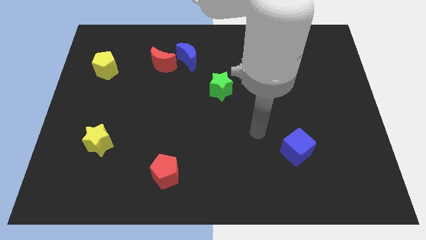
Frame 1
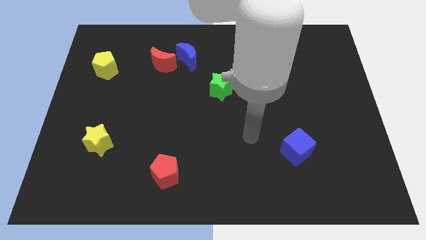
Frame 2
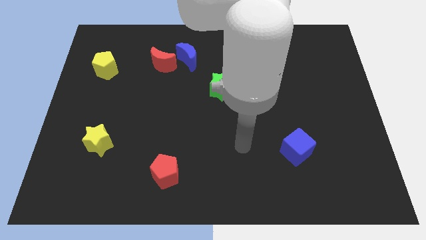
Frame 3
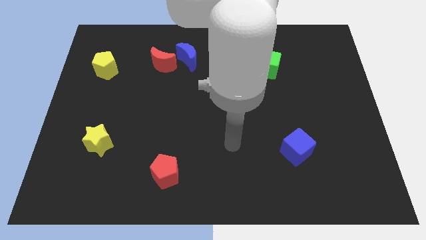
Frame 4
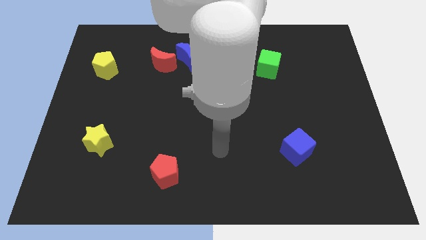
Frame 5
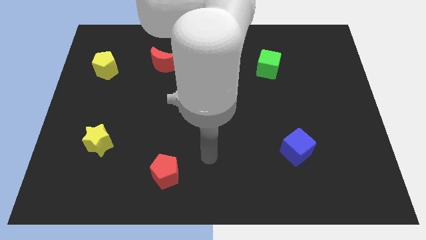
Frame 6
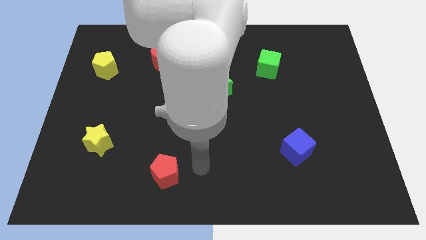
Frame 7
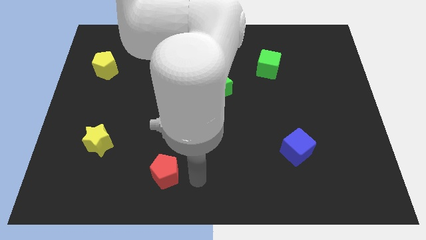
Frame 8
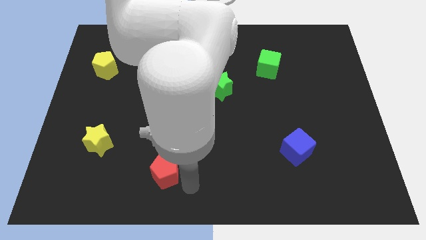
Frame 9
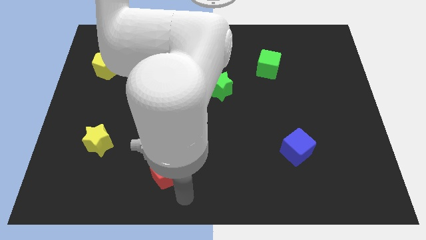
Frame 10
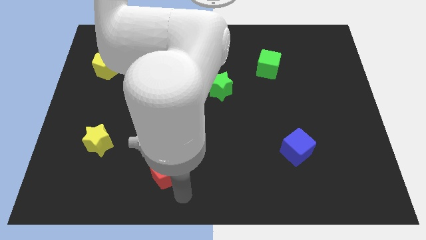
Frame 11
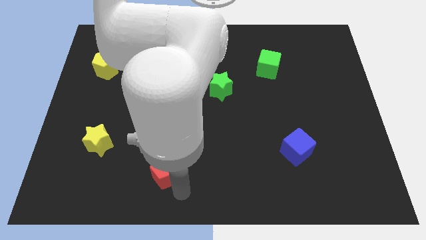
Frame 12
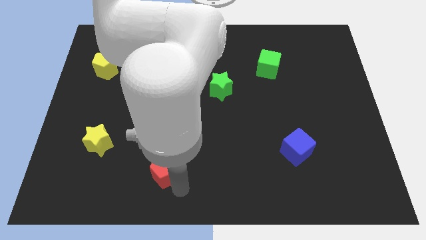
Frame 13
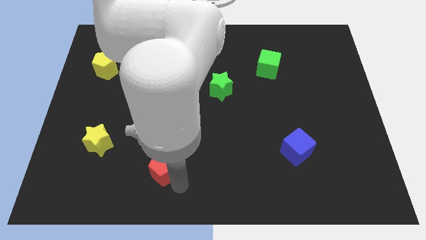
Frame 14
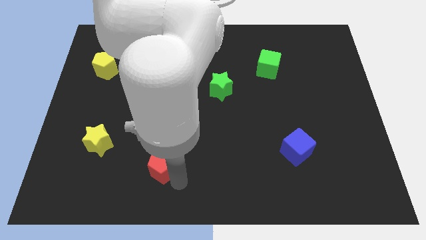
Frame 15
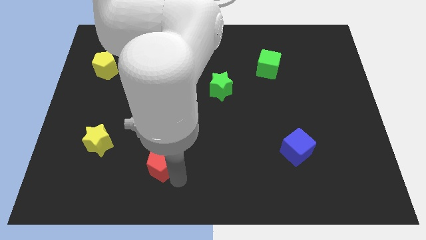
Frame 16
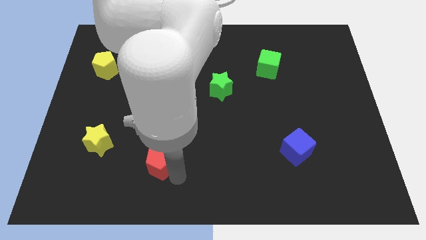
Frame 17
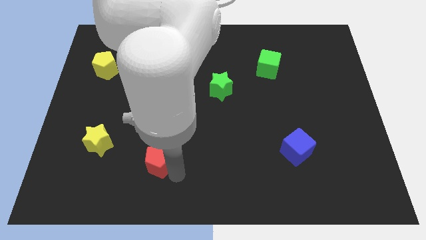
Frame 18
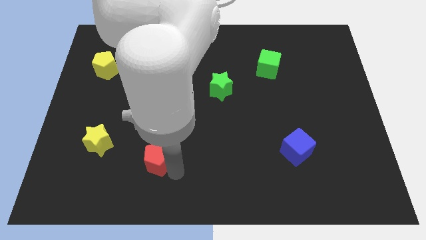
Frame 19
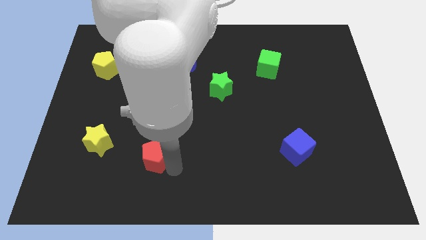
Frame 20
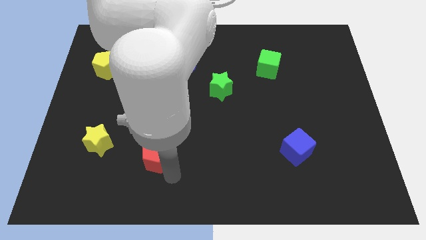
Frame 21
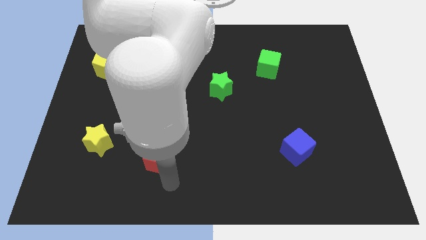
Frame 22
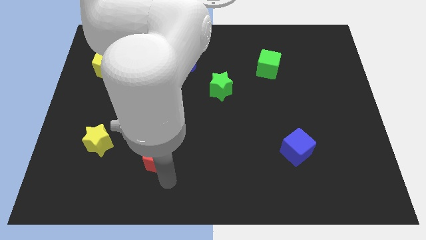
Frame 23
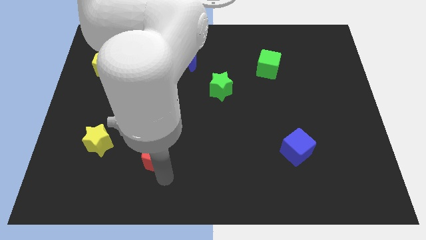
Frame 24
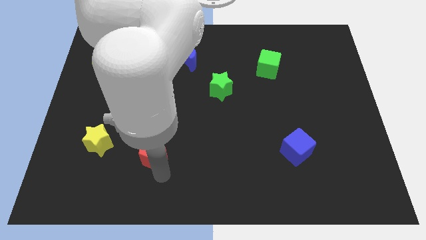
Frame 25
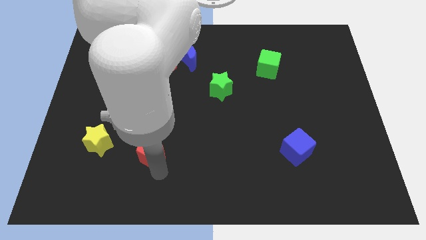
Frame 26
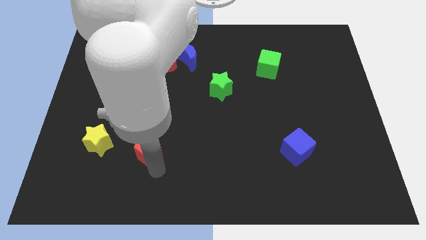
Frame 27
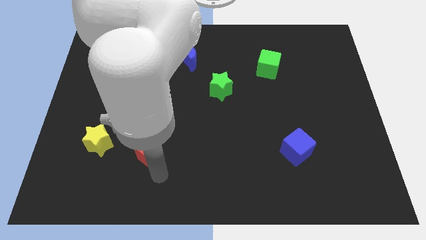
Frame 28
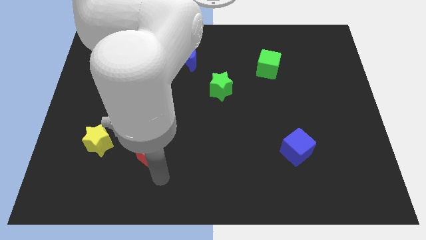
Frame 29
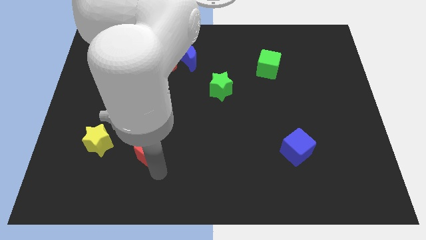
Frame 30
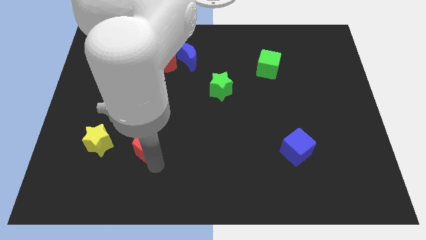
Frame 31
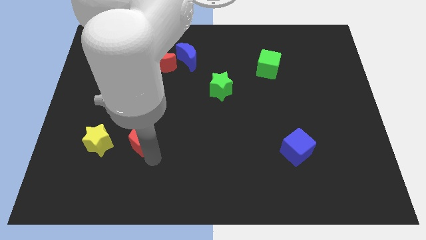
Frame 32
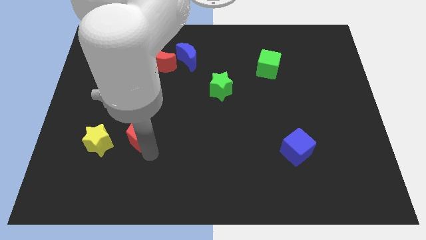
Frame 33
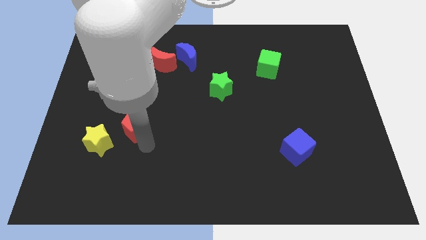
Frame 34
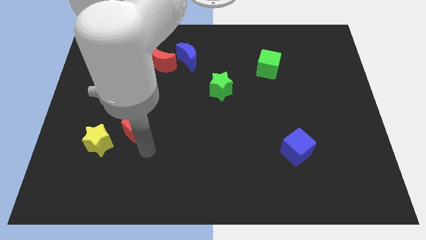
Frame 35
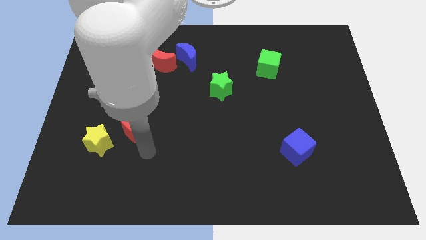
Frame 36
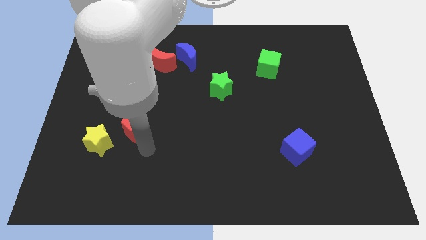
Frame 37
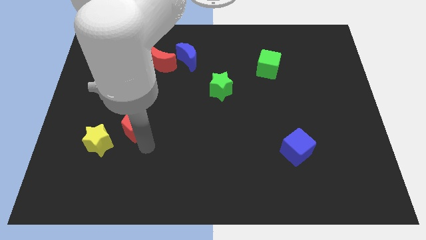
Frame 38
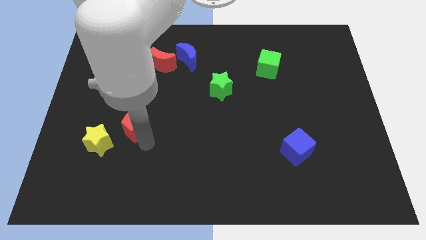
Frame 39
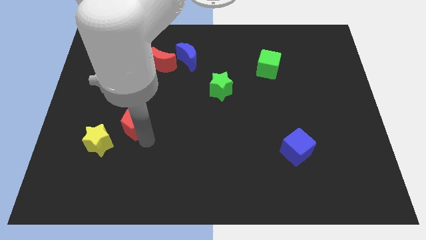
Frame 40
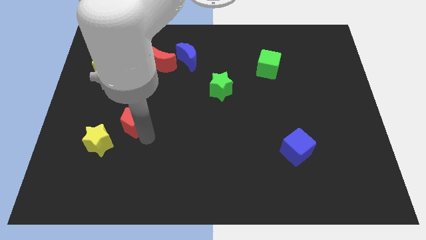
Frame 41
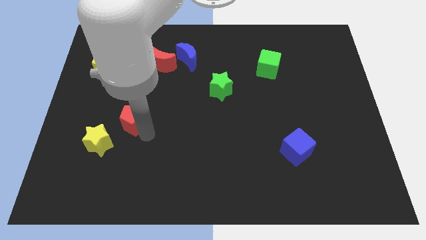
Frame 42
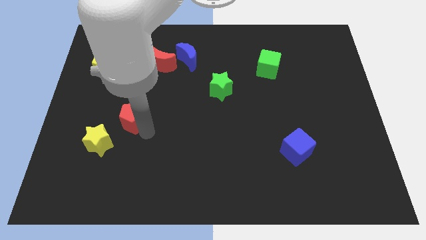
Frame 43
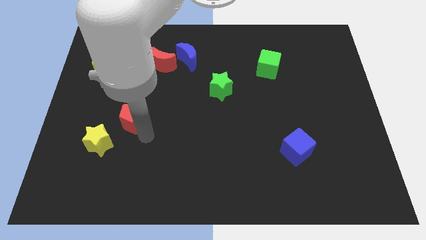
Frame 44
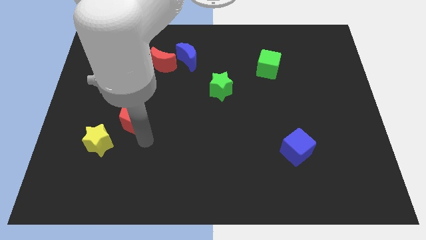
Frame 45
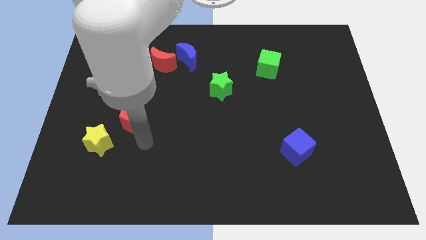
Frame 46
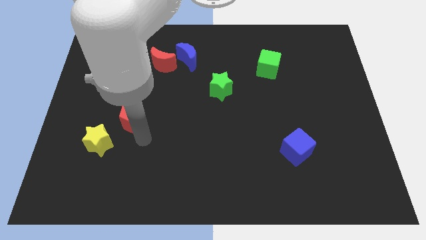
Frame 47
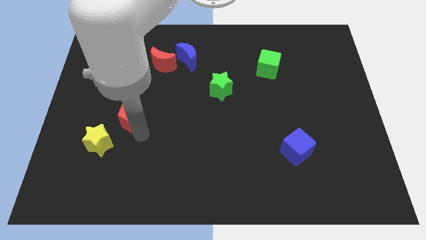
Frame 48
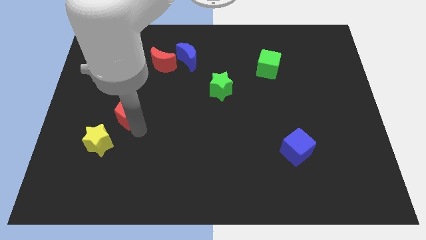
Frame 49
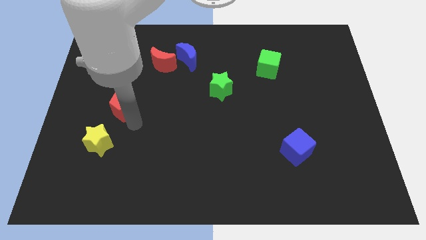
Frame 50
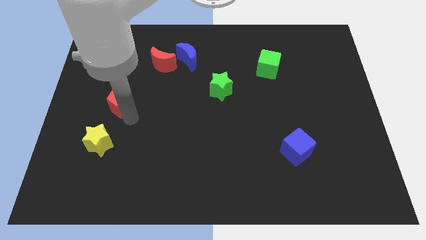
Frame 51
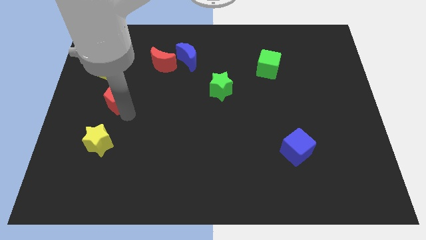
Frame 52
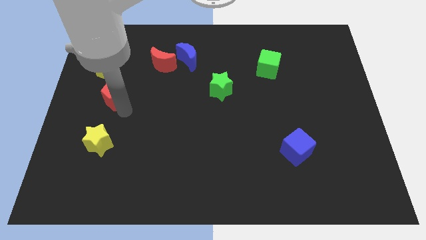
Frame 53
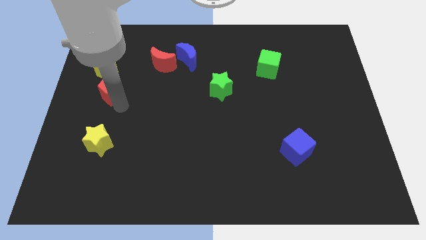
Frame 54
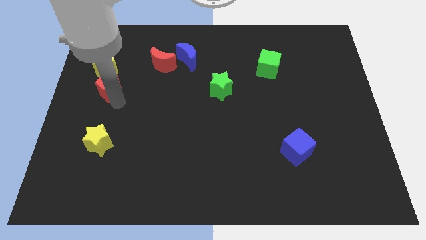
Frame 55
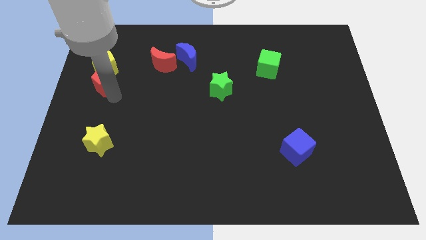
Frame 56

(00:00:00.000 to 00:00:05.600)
push the red pentagon close to the yellow pentagon

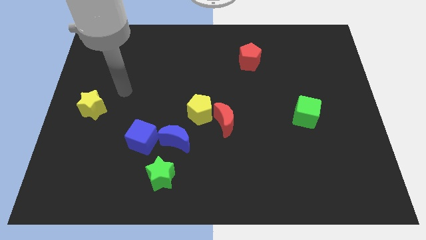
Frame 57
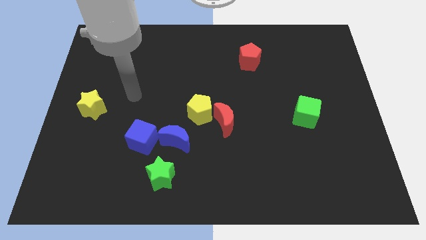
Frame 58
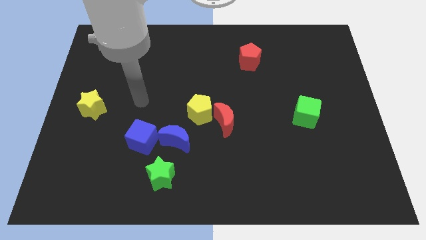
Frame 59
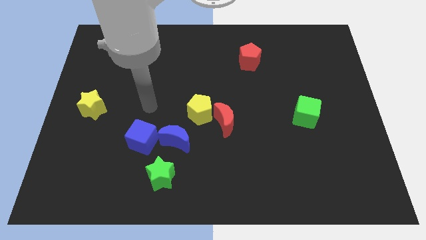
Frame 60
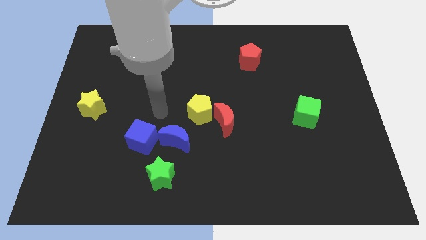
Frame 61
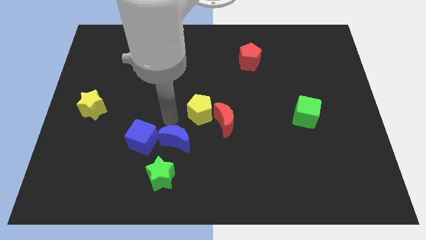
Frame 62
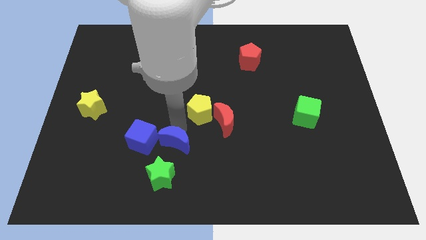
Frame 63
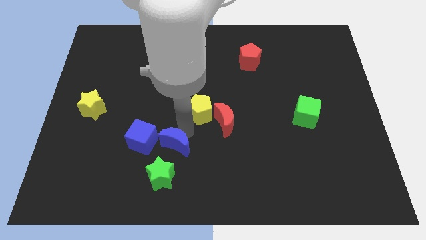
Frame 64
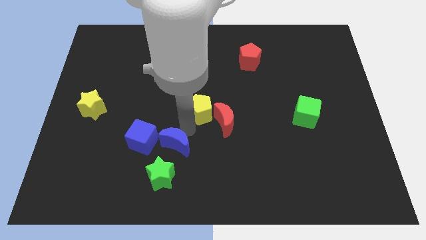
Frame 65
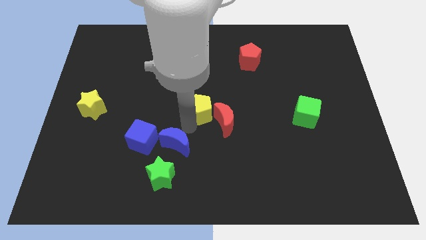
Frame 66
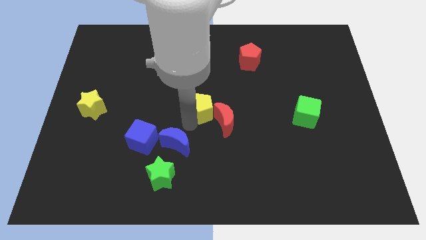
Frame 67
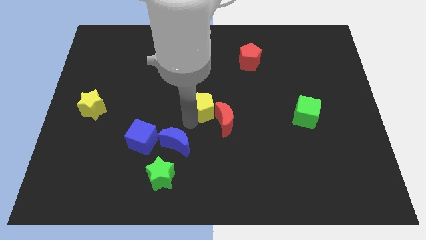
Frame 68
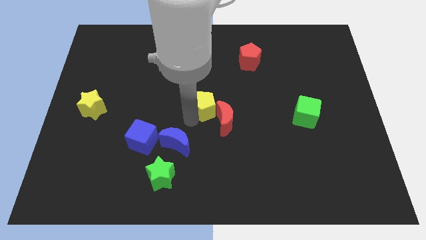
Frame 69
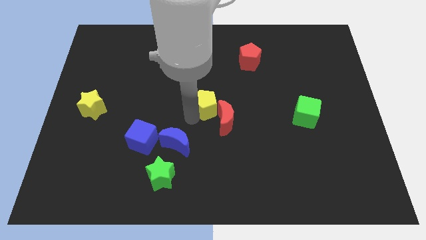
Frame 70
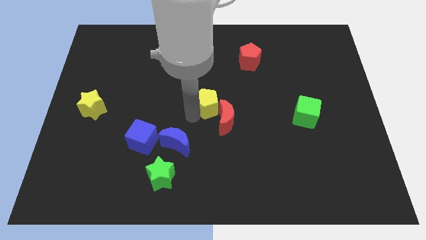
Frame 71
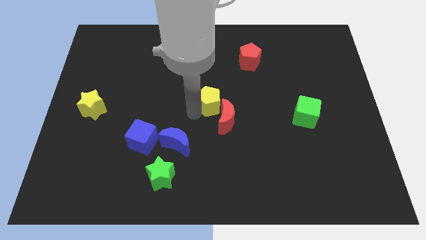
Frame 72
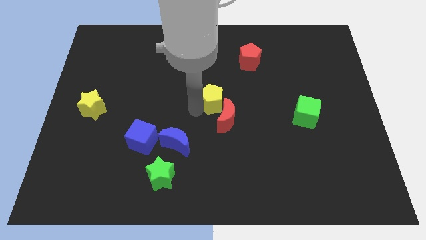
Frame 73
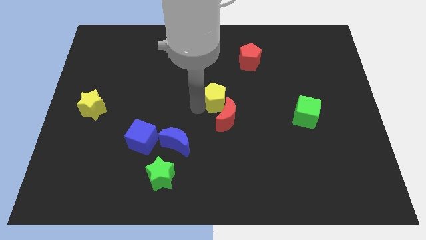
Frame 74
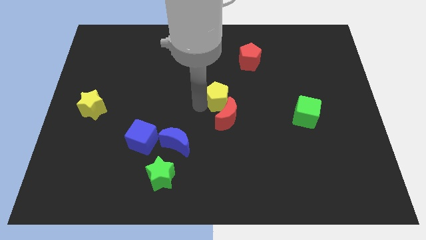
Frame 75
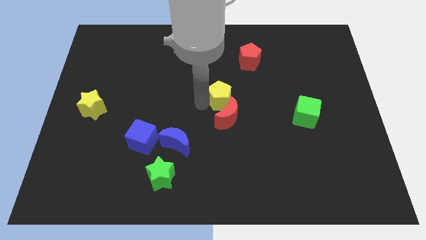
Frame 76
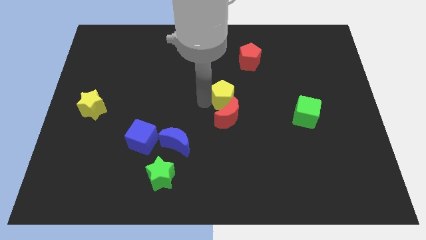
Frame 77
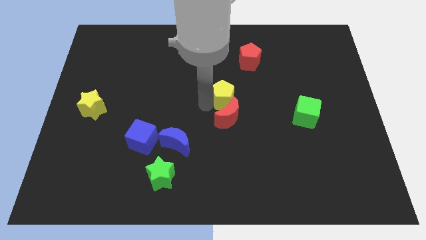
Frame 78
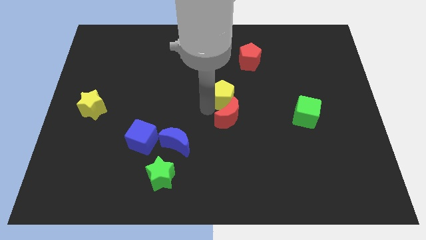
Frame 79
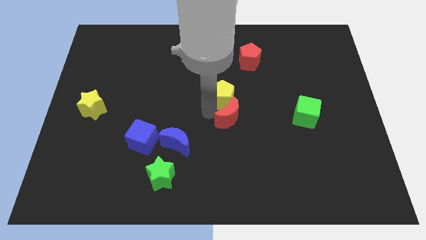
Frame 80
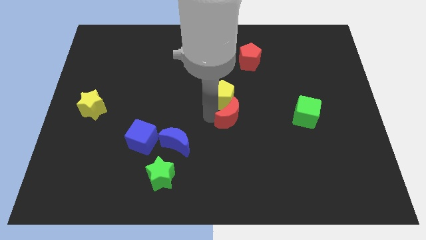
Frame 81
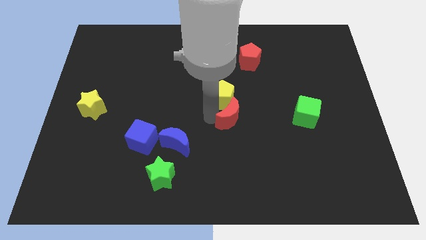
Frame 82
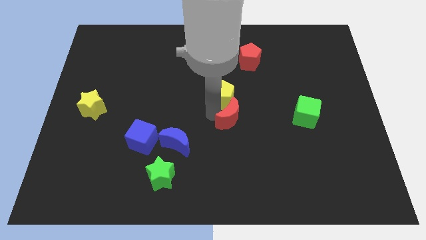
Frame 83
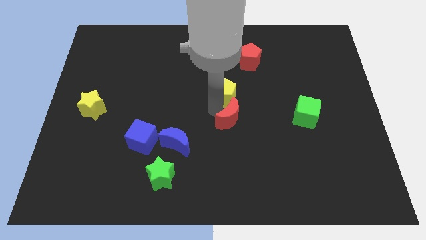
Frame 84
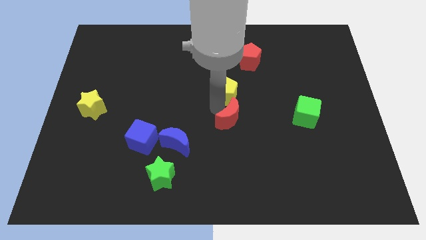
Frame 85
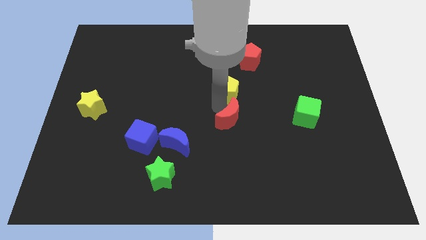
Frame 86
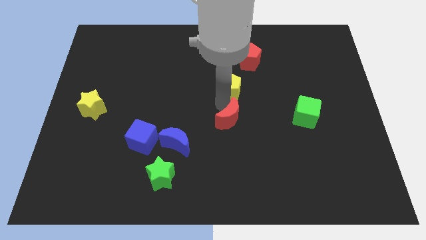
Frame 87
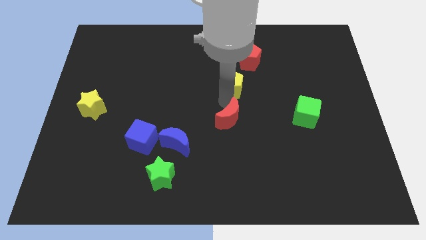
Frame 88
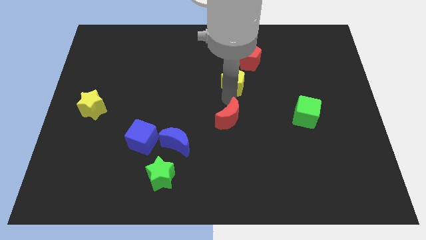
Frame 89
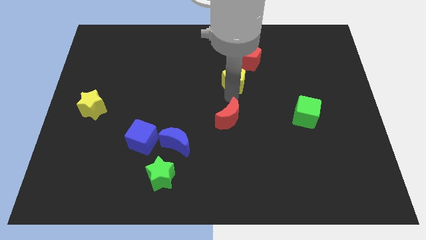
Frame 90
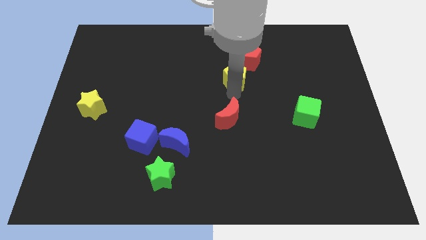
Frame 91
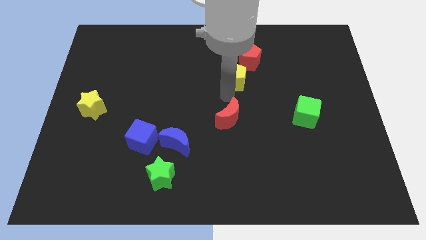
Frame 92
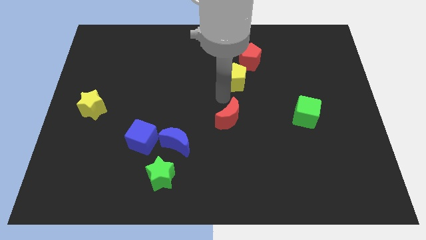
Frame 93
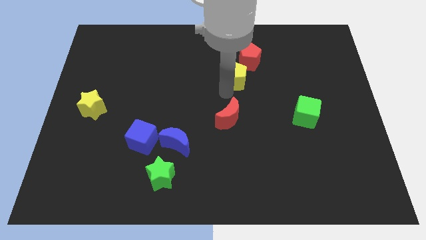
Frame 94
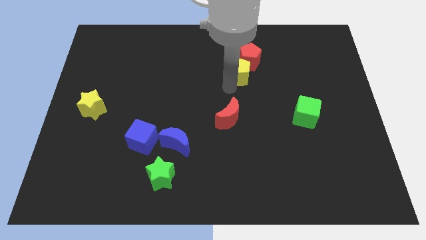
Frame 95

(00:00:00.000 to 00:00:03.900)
slide the yellow pentagon close to the red pentagon
